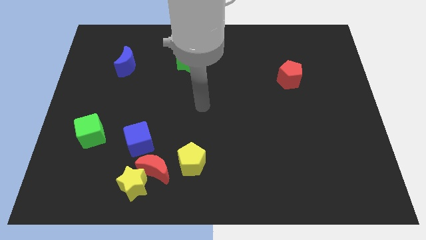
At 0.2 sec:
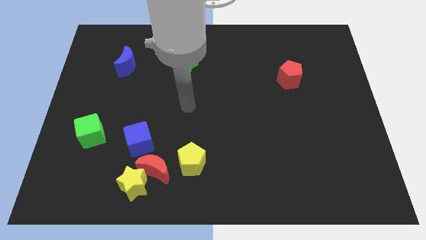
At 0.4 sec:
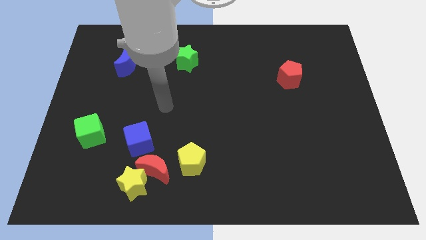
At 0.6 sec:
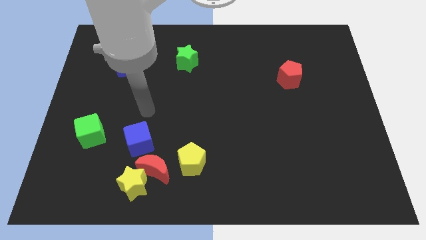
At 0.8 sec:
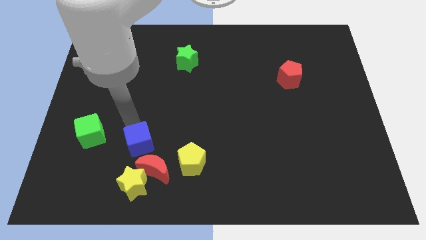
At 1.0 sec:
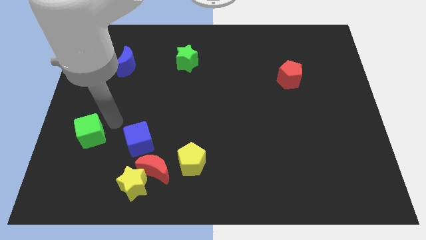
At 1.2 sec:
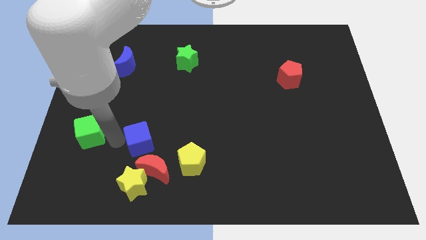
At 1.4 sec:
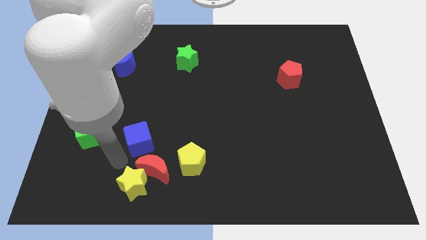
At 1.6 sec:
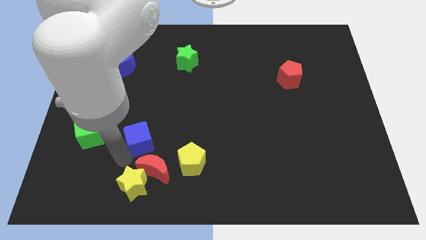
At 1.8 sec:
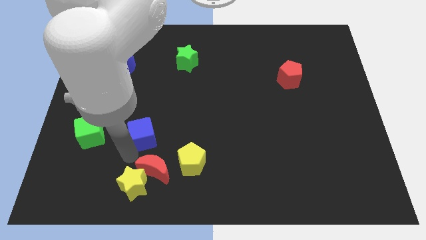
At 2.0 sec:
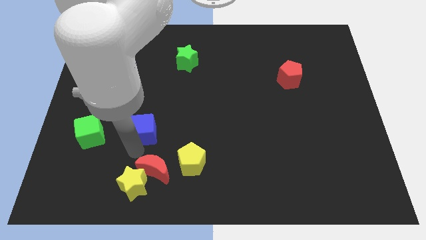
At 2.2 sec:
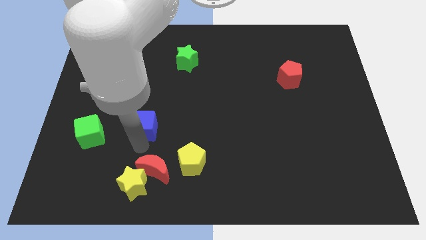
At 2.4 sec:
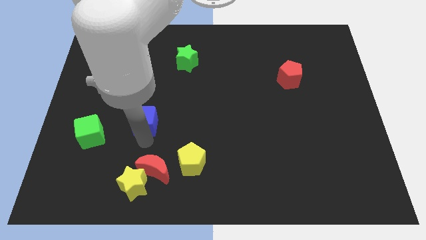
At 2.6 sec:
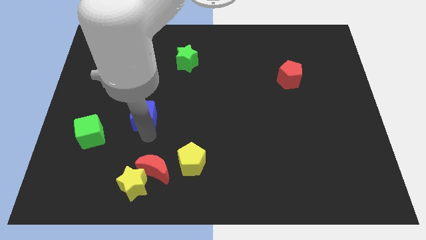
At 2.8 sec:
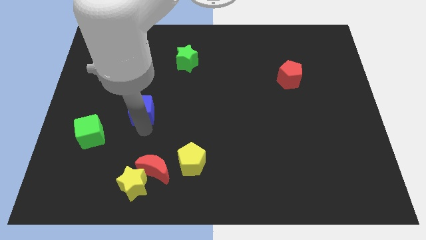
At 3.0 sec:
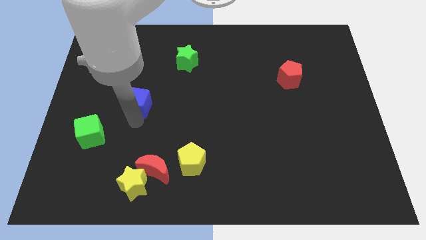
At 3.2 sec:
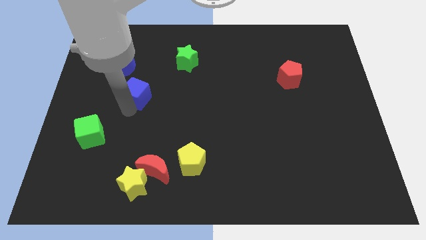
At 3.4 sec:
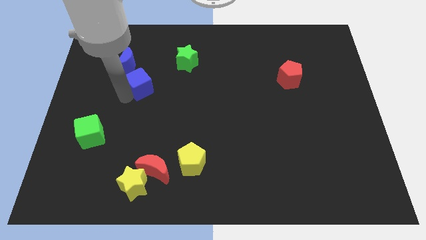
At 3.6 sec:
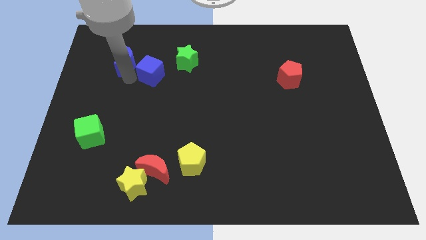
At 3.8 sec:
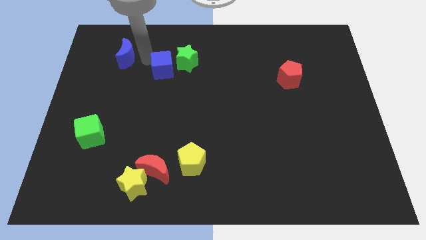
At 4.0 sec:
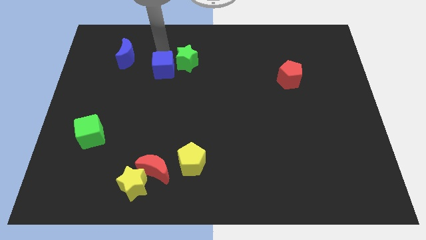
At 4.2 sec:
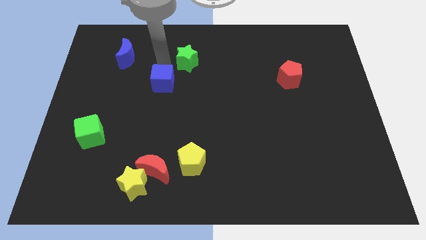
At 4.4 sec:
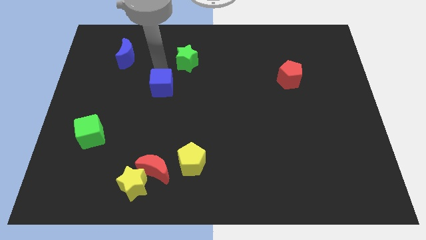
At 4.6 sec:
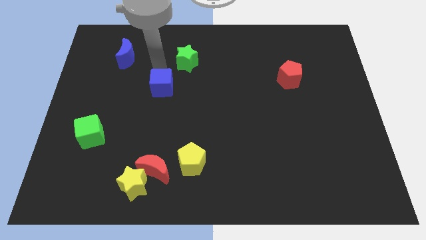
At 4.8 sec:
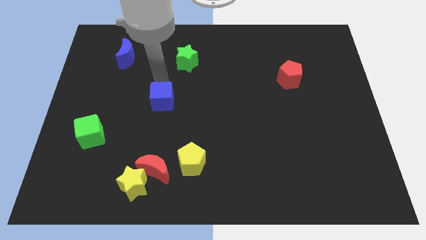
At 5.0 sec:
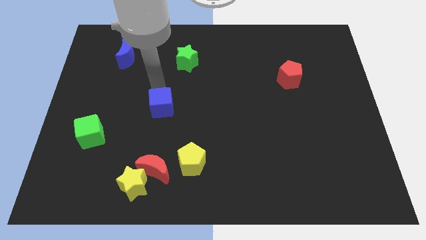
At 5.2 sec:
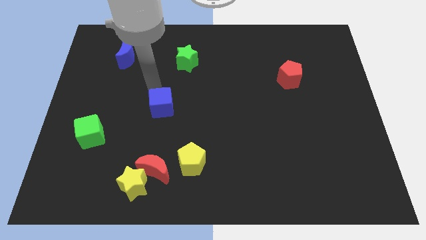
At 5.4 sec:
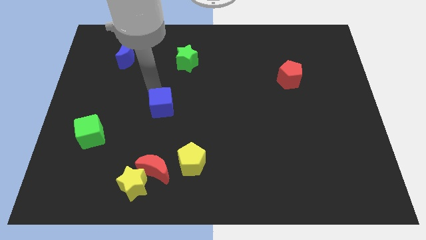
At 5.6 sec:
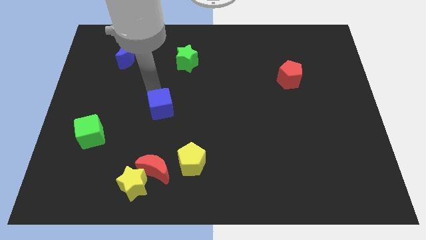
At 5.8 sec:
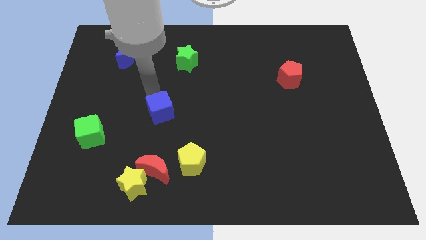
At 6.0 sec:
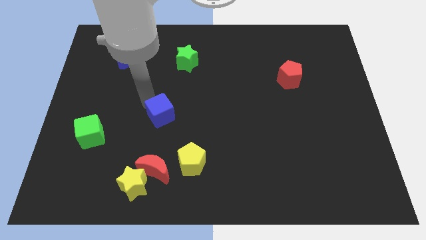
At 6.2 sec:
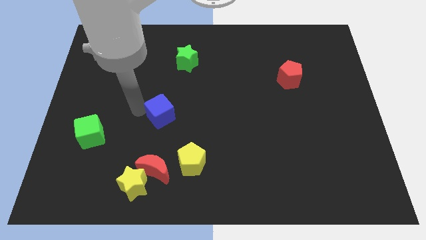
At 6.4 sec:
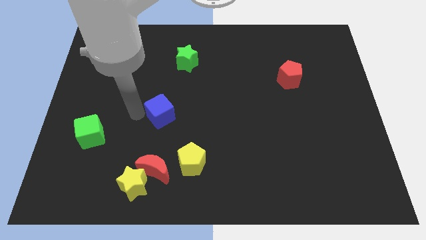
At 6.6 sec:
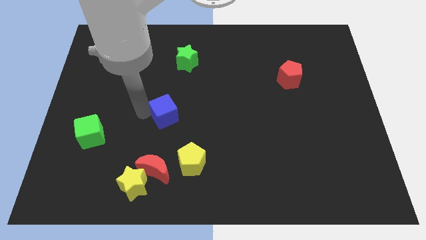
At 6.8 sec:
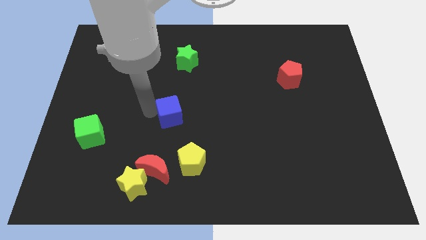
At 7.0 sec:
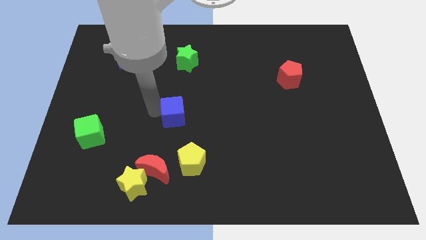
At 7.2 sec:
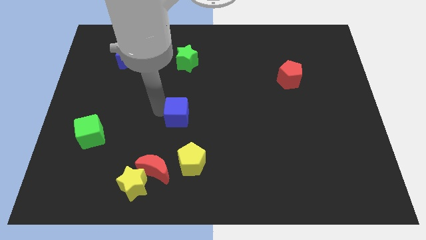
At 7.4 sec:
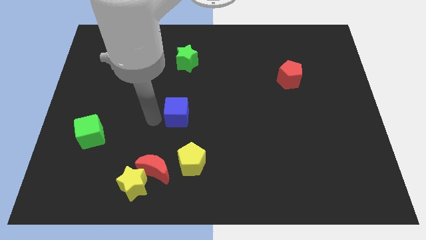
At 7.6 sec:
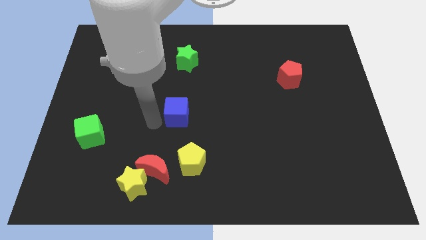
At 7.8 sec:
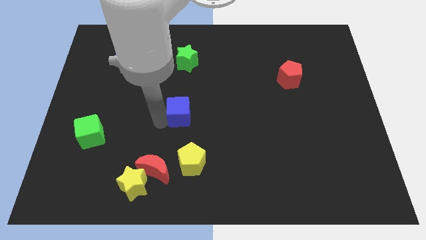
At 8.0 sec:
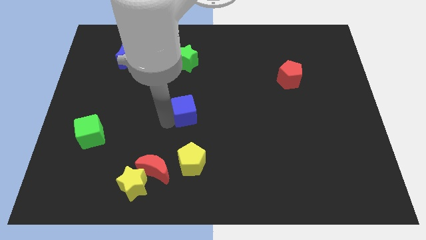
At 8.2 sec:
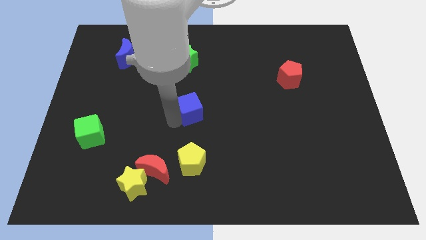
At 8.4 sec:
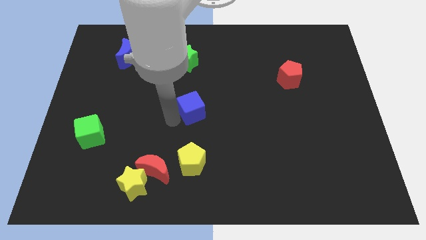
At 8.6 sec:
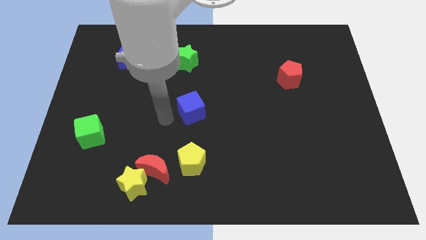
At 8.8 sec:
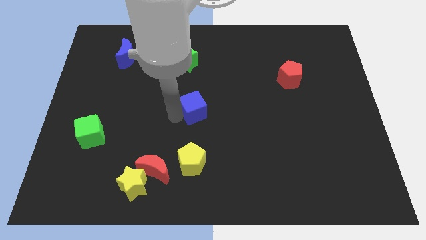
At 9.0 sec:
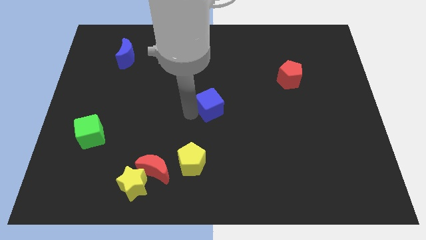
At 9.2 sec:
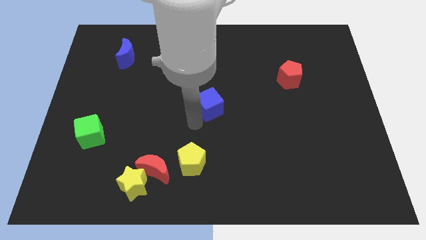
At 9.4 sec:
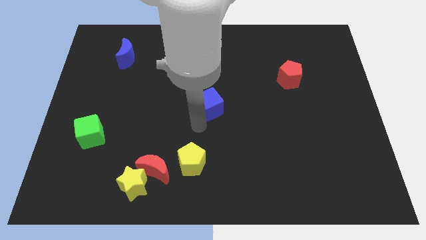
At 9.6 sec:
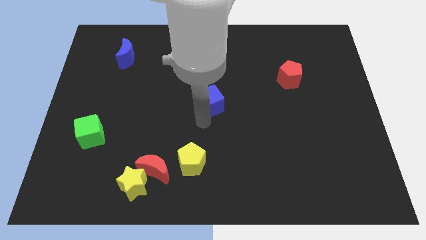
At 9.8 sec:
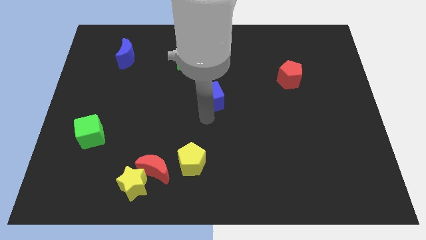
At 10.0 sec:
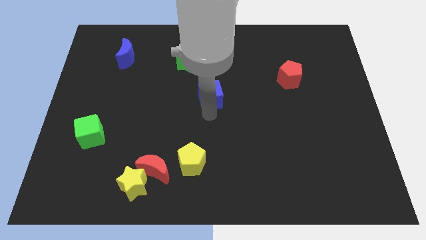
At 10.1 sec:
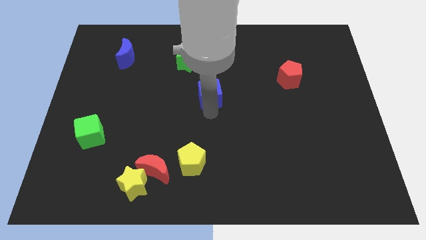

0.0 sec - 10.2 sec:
slide the blue cube up and right diagonally

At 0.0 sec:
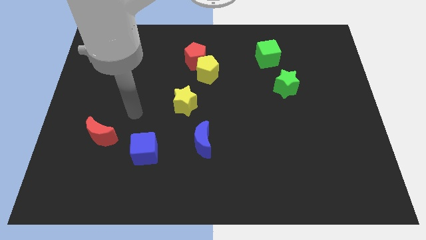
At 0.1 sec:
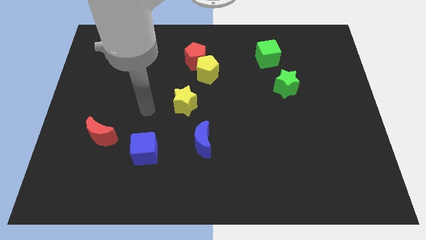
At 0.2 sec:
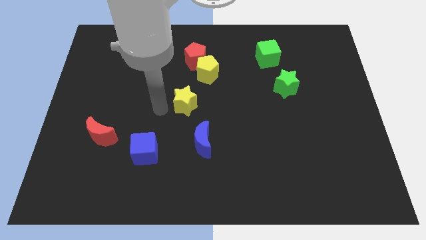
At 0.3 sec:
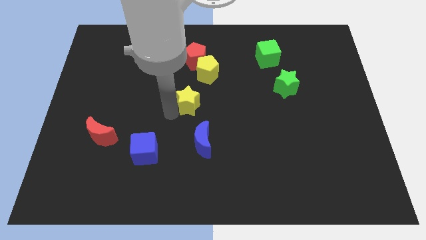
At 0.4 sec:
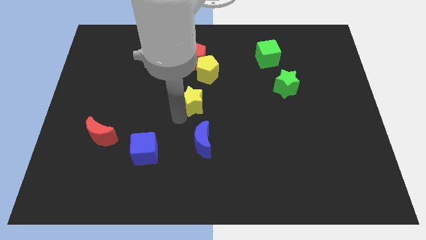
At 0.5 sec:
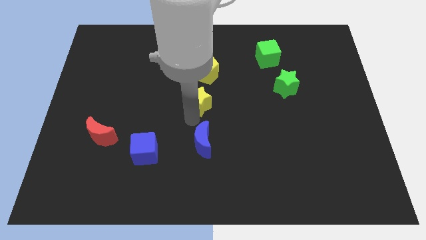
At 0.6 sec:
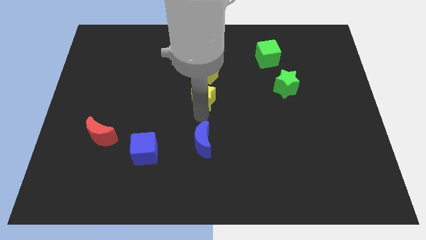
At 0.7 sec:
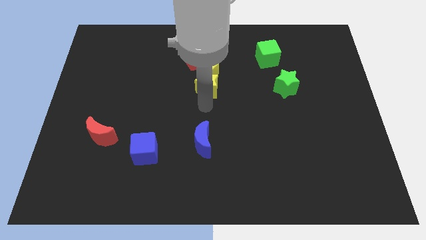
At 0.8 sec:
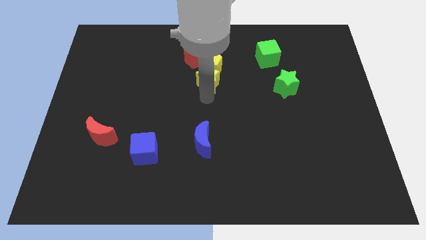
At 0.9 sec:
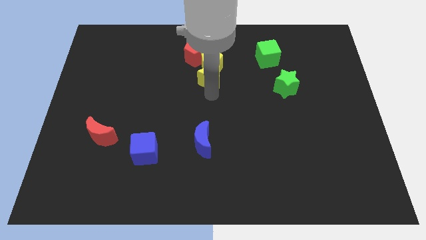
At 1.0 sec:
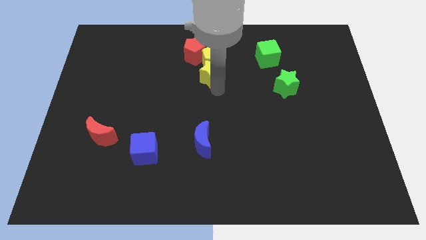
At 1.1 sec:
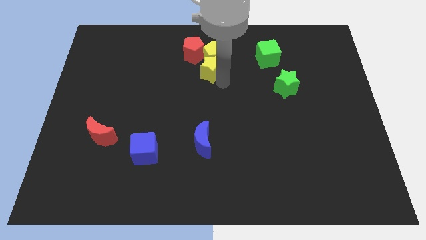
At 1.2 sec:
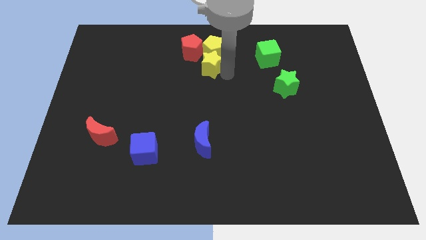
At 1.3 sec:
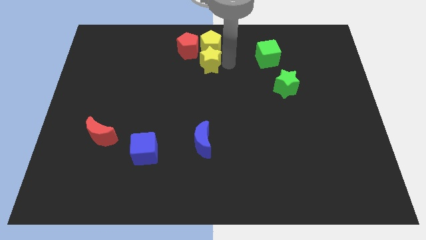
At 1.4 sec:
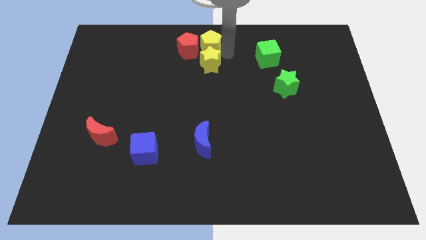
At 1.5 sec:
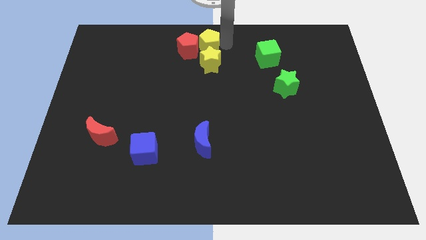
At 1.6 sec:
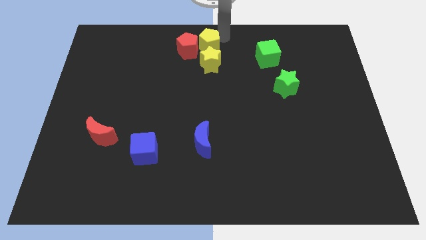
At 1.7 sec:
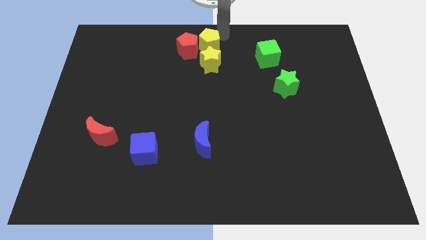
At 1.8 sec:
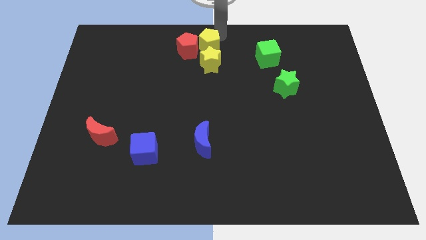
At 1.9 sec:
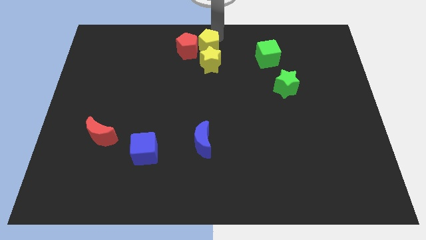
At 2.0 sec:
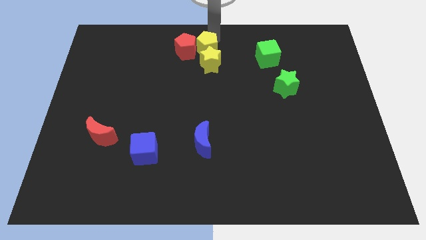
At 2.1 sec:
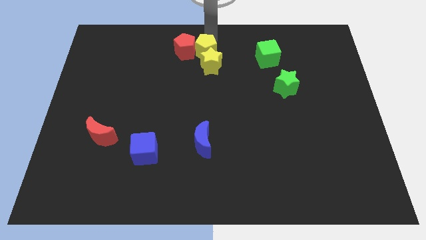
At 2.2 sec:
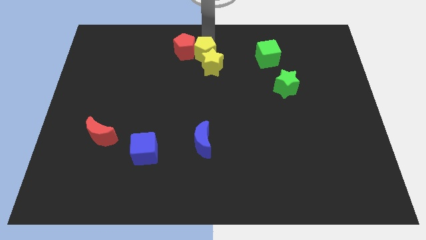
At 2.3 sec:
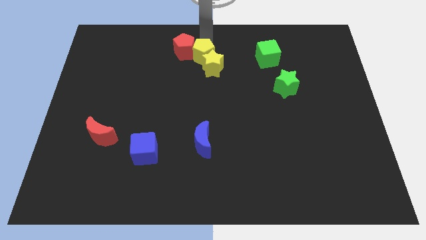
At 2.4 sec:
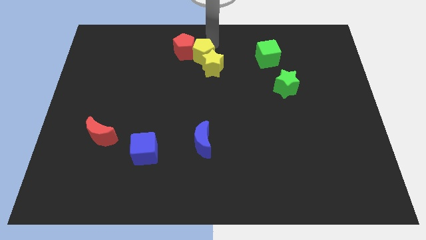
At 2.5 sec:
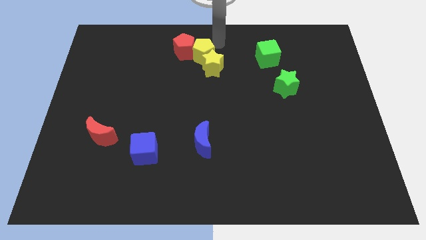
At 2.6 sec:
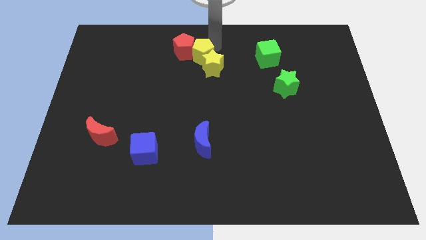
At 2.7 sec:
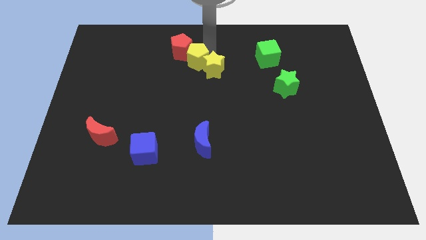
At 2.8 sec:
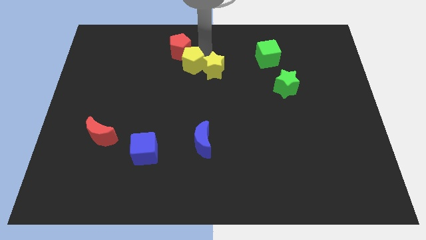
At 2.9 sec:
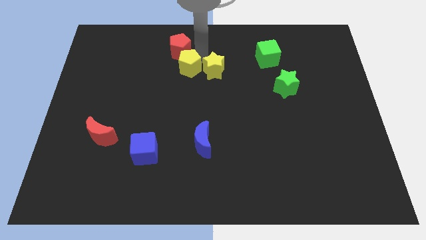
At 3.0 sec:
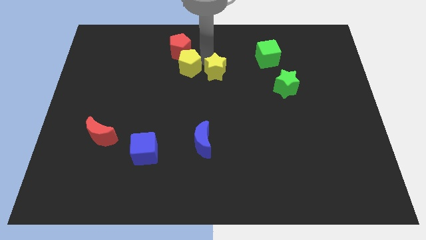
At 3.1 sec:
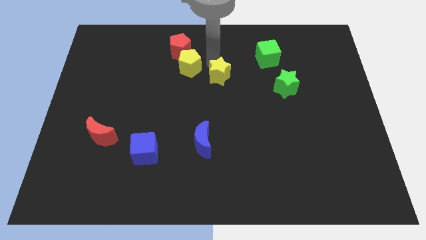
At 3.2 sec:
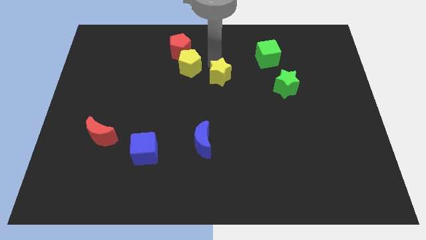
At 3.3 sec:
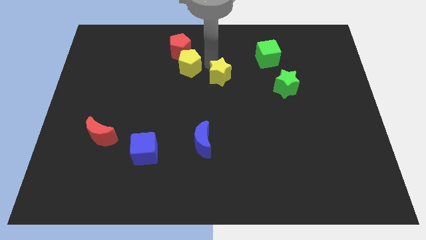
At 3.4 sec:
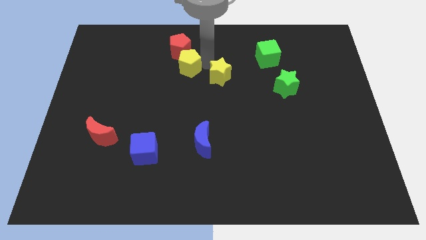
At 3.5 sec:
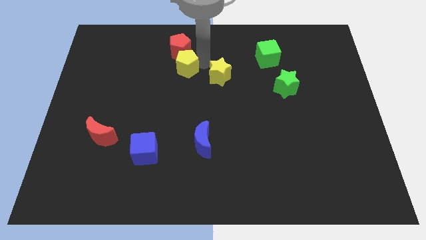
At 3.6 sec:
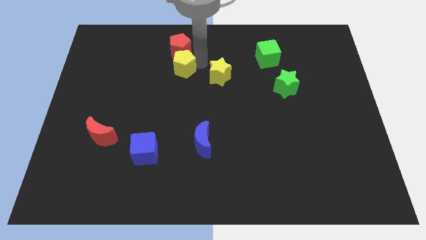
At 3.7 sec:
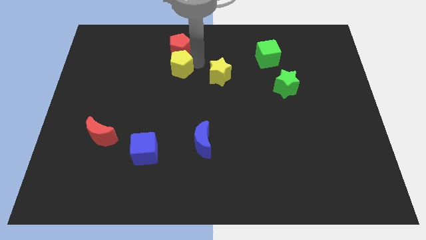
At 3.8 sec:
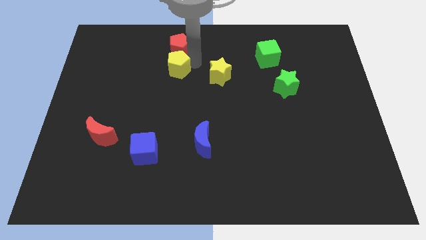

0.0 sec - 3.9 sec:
push the yellow pentagon left somewhat
